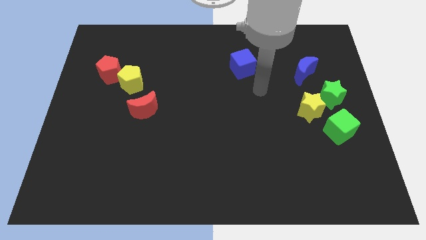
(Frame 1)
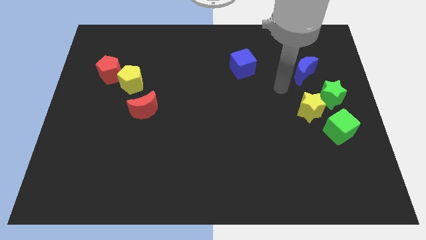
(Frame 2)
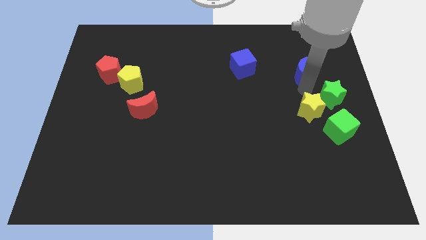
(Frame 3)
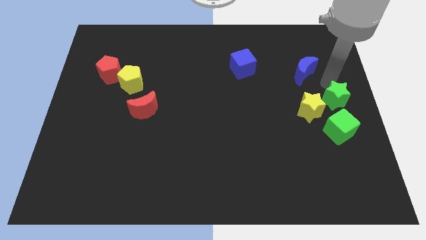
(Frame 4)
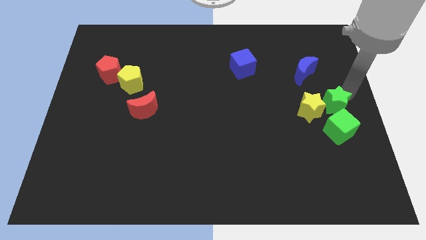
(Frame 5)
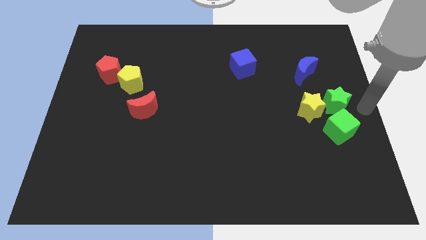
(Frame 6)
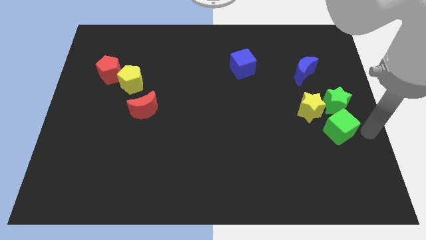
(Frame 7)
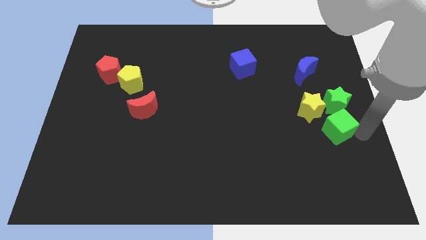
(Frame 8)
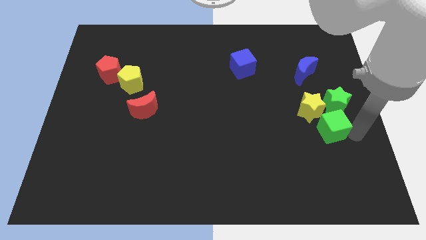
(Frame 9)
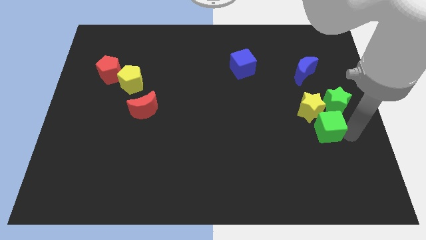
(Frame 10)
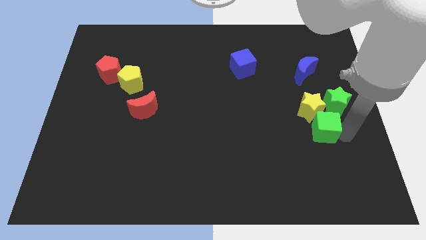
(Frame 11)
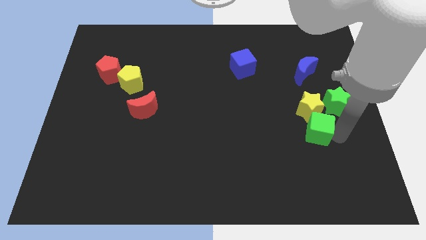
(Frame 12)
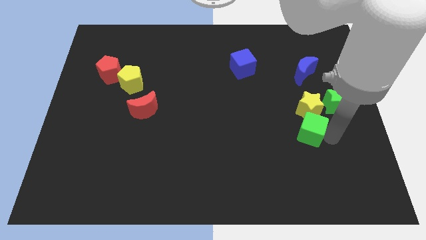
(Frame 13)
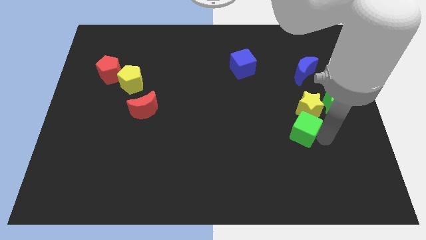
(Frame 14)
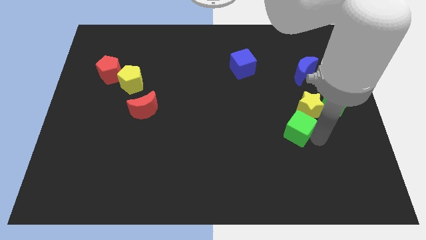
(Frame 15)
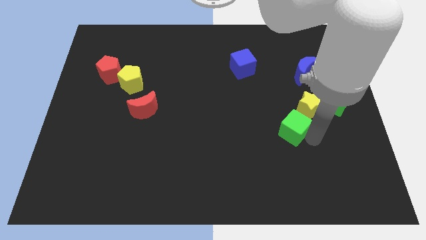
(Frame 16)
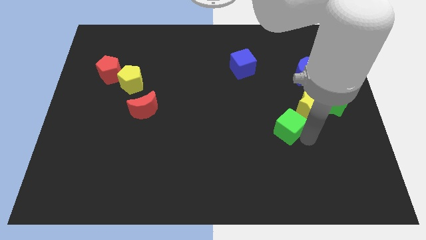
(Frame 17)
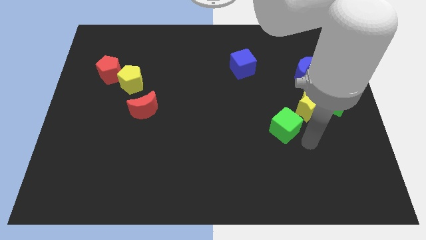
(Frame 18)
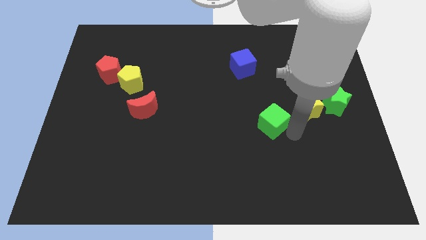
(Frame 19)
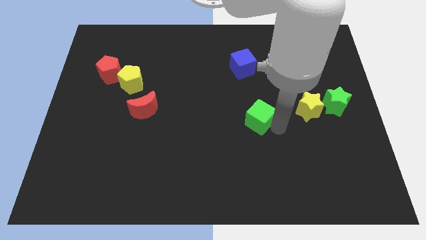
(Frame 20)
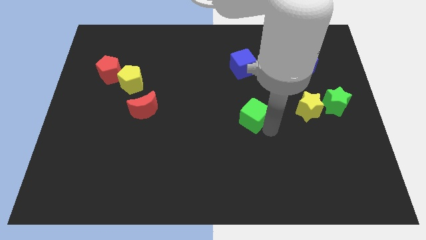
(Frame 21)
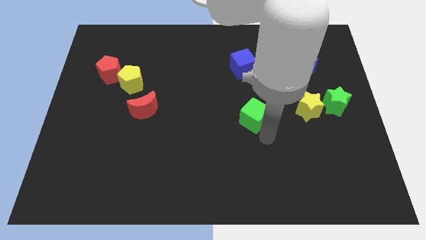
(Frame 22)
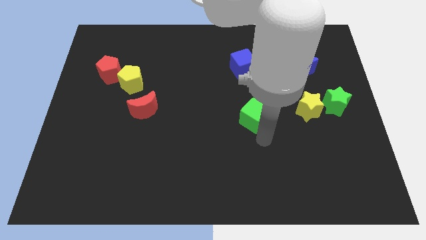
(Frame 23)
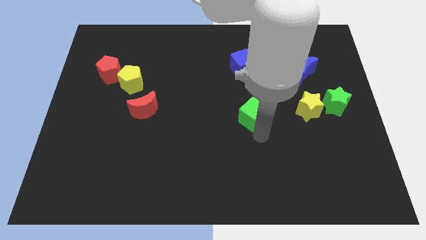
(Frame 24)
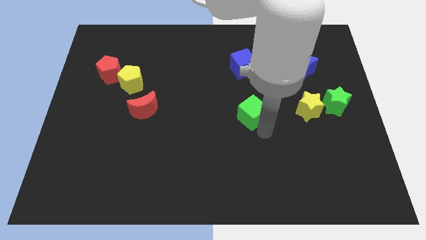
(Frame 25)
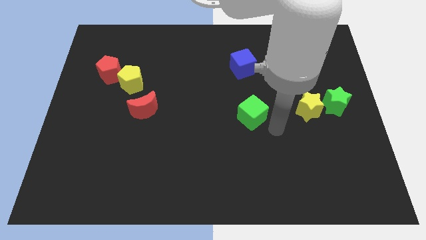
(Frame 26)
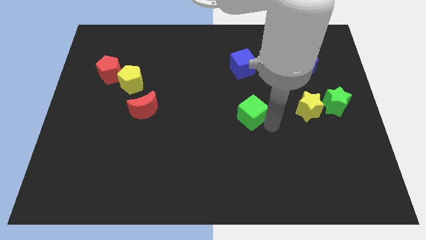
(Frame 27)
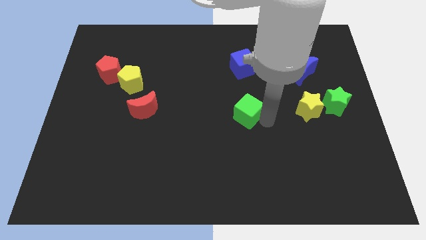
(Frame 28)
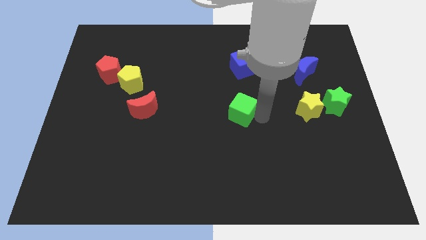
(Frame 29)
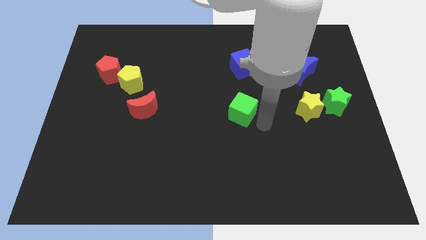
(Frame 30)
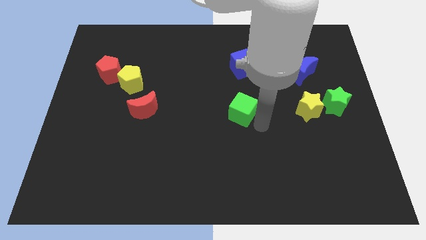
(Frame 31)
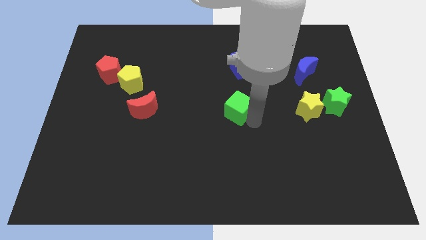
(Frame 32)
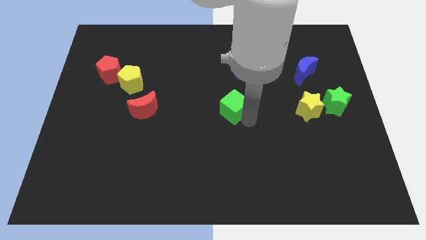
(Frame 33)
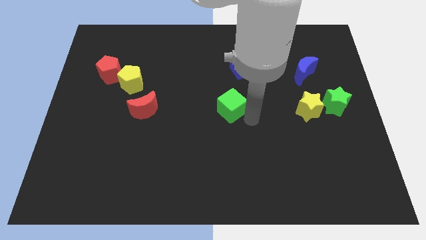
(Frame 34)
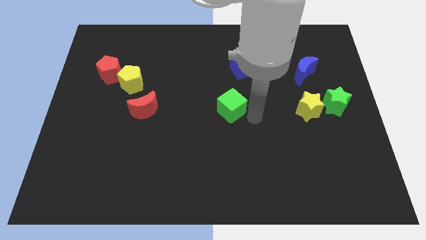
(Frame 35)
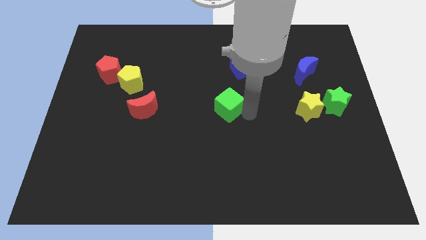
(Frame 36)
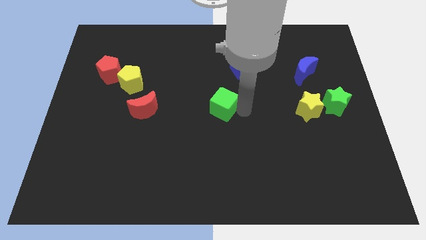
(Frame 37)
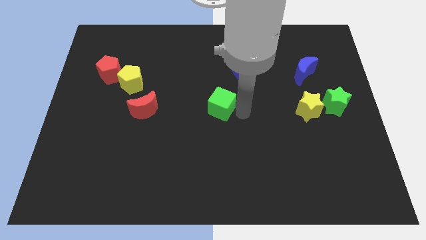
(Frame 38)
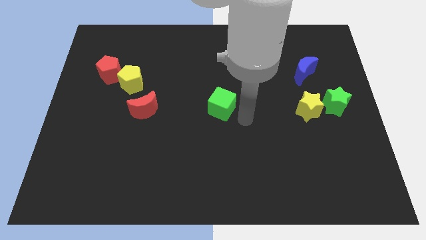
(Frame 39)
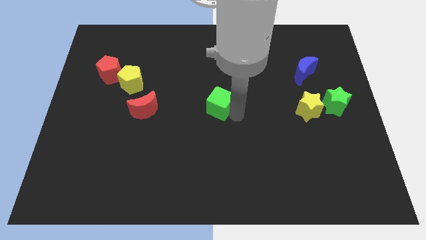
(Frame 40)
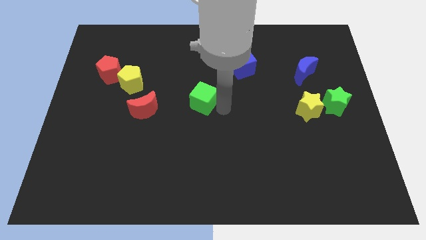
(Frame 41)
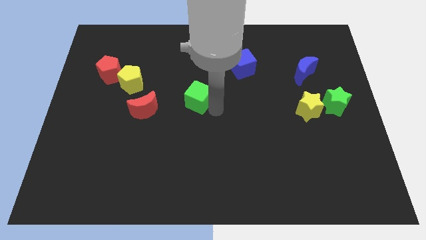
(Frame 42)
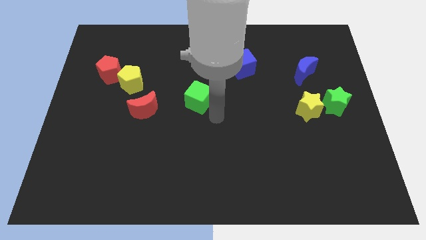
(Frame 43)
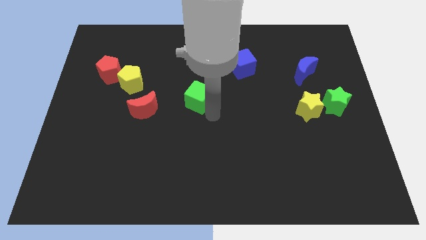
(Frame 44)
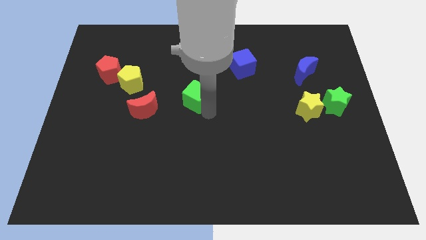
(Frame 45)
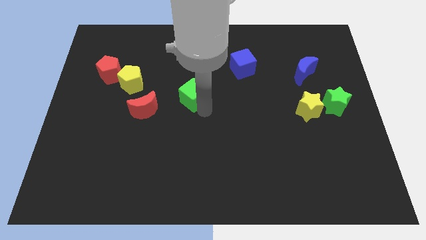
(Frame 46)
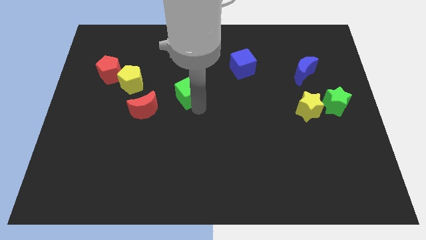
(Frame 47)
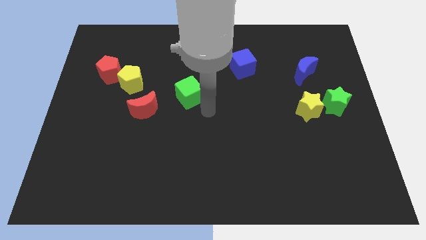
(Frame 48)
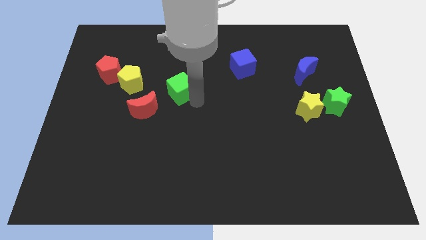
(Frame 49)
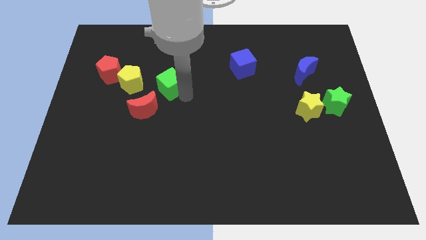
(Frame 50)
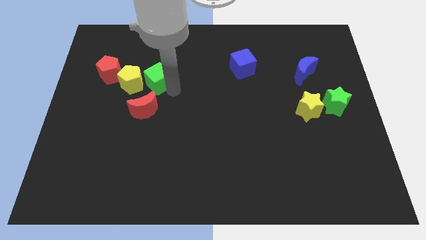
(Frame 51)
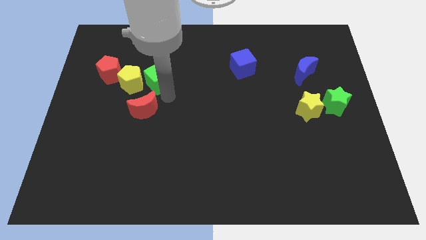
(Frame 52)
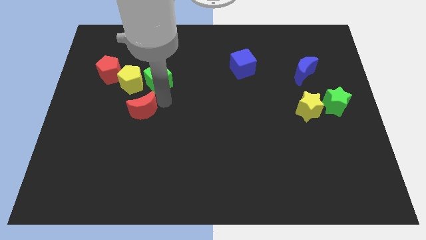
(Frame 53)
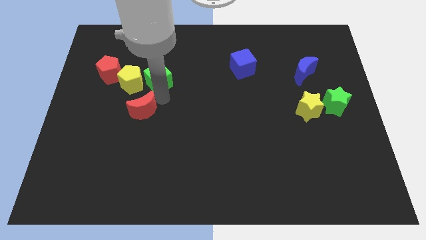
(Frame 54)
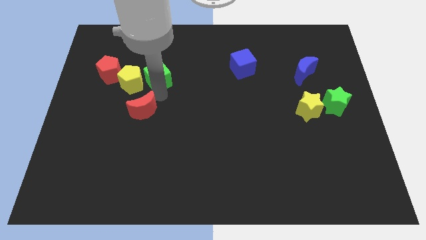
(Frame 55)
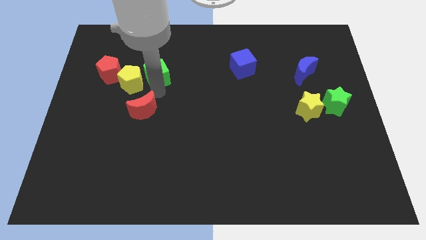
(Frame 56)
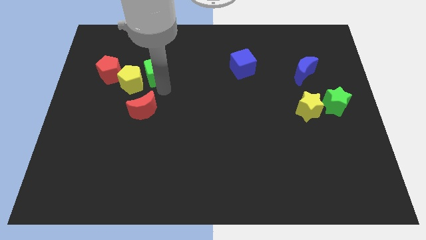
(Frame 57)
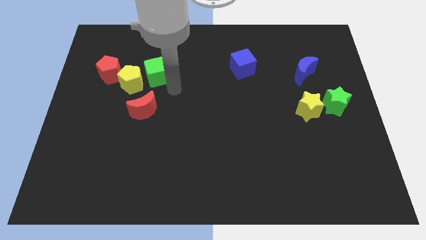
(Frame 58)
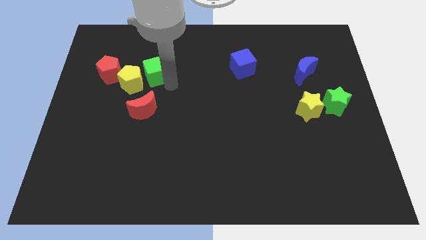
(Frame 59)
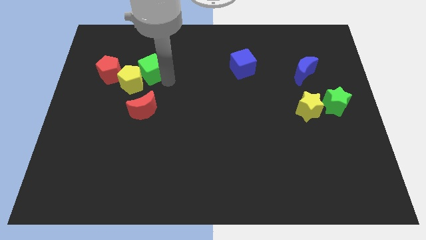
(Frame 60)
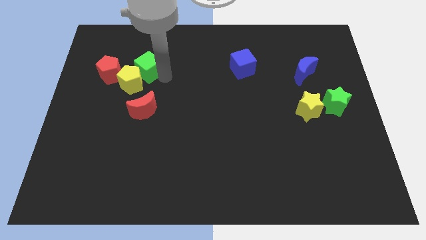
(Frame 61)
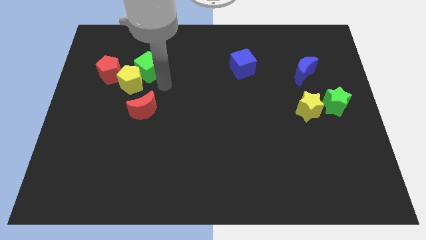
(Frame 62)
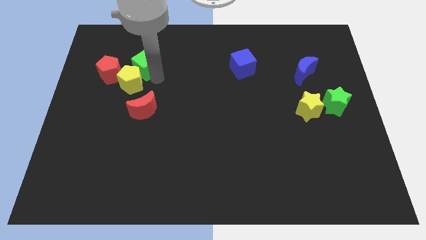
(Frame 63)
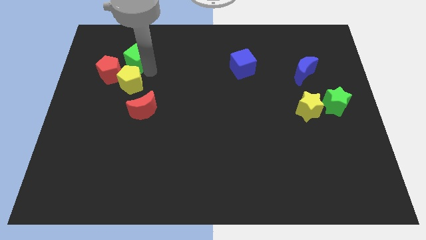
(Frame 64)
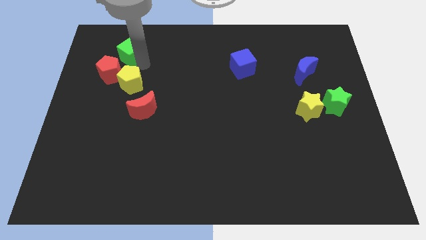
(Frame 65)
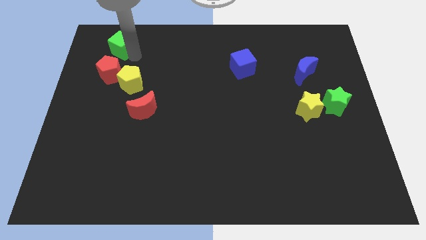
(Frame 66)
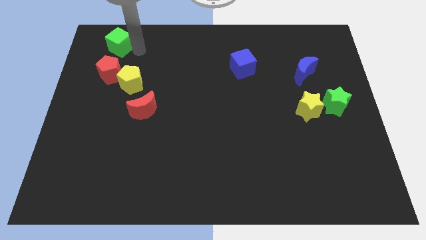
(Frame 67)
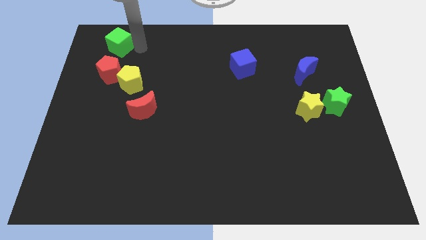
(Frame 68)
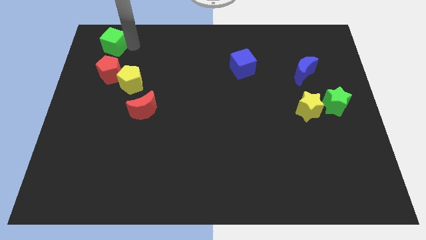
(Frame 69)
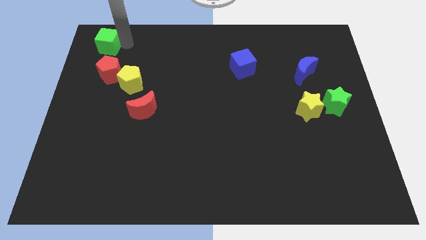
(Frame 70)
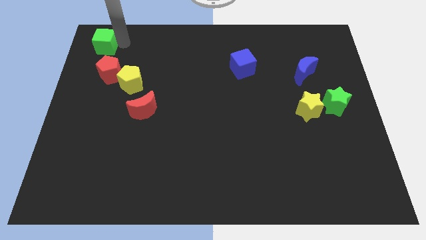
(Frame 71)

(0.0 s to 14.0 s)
move the green cube to the top left corner

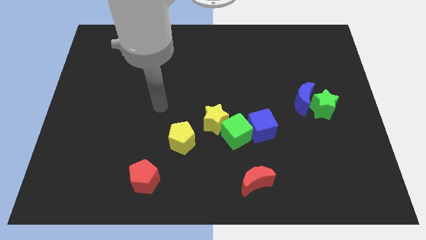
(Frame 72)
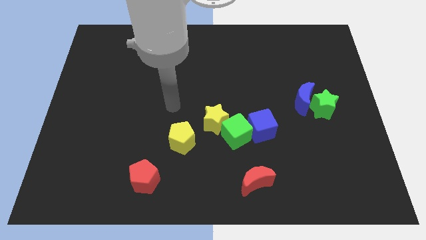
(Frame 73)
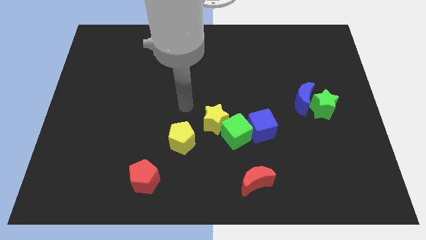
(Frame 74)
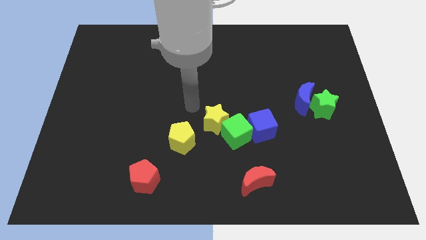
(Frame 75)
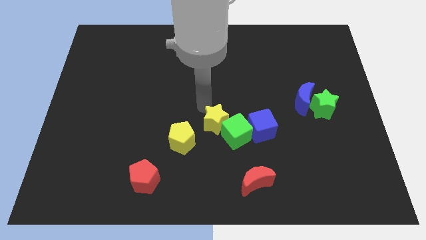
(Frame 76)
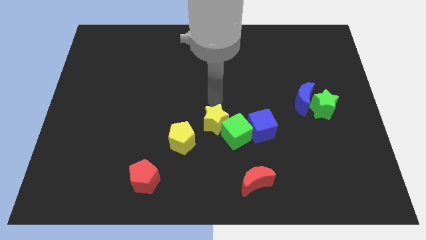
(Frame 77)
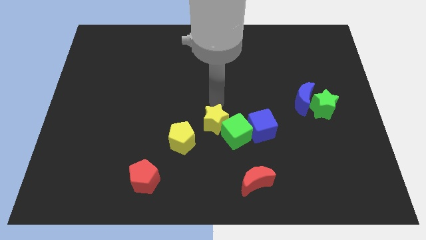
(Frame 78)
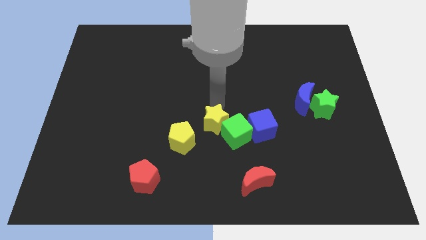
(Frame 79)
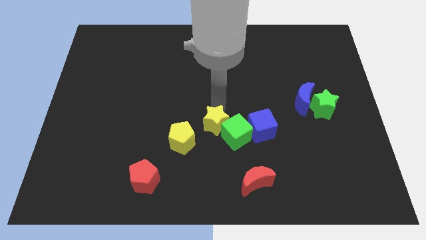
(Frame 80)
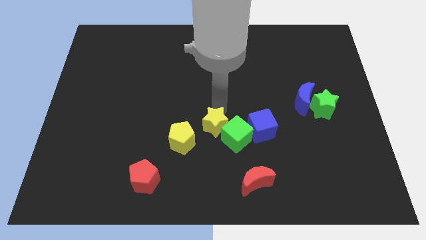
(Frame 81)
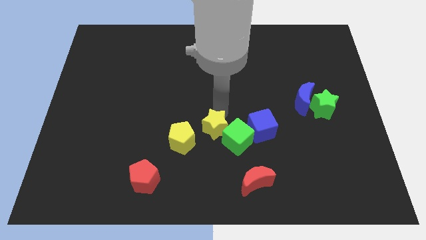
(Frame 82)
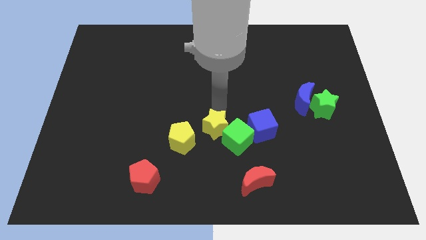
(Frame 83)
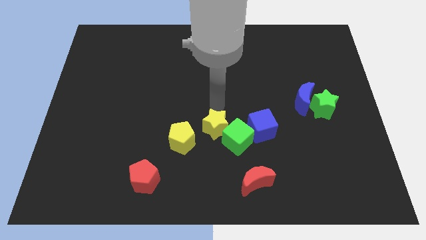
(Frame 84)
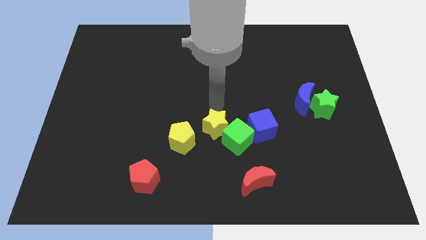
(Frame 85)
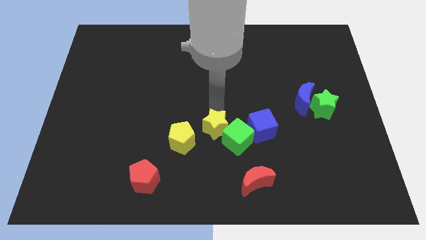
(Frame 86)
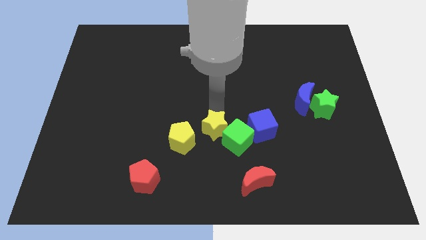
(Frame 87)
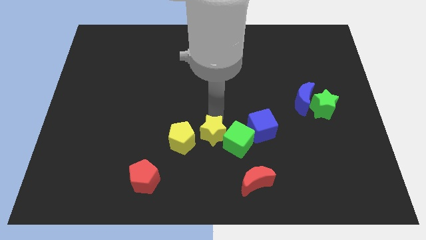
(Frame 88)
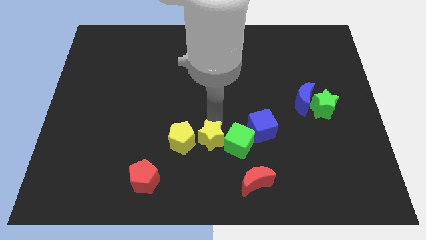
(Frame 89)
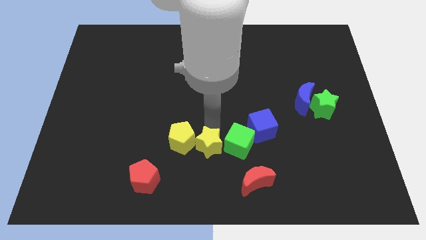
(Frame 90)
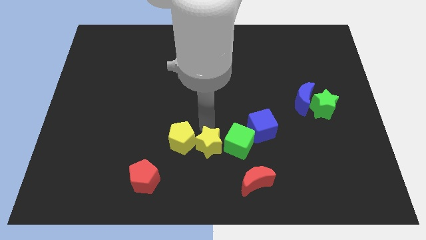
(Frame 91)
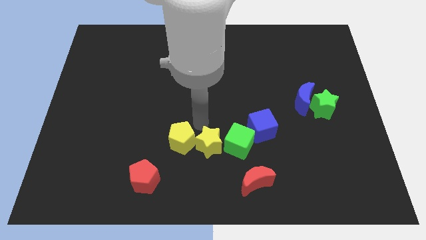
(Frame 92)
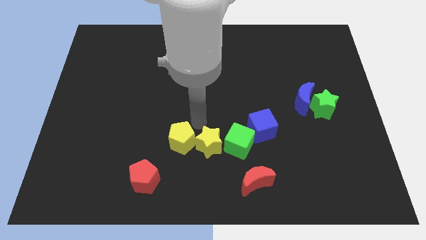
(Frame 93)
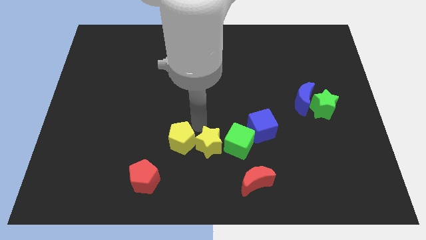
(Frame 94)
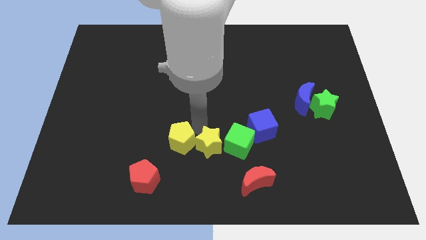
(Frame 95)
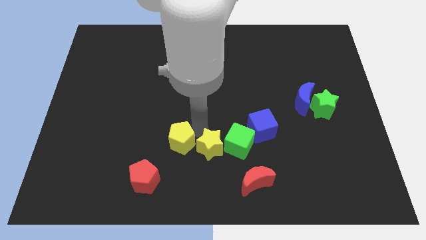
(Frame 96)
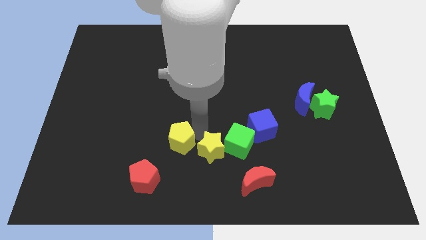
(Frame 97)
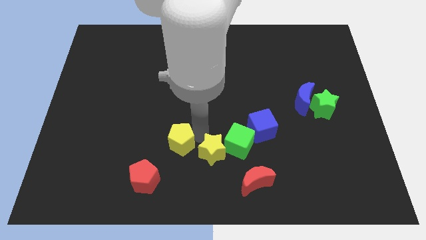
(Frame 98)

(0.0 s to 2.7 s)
slide the yellow star to the bottom side
